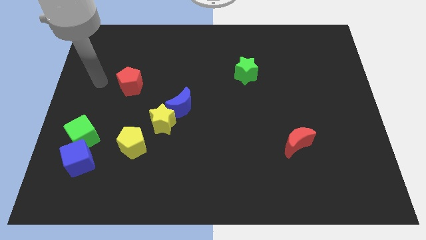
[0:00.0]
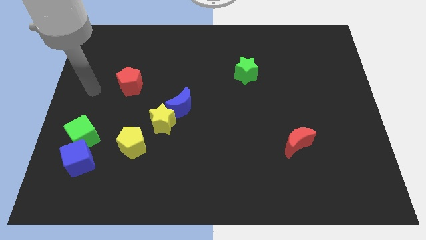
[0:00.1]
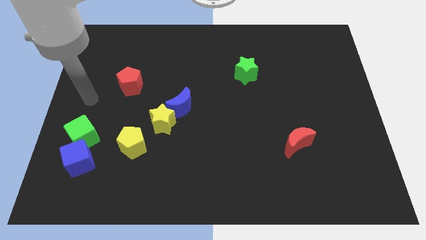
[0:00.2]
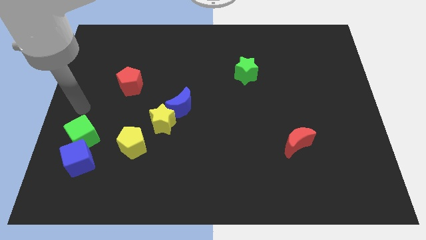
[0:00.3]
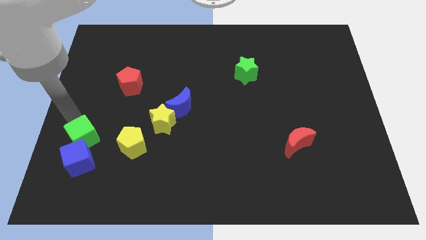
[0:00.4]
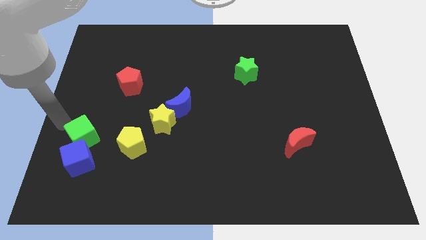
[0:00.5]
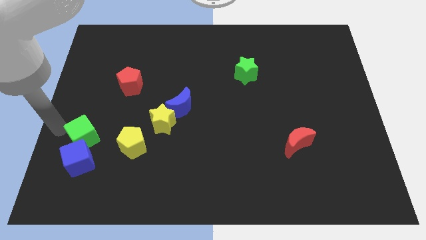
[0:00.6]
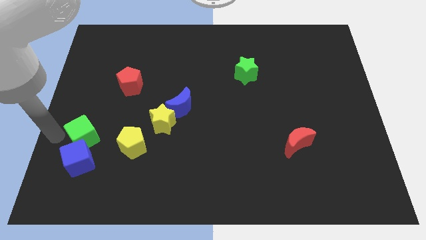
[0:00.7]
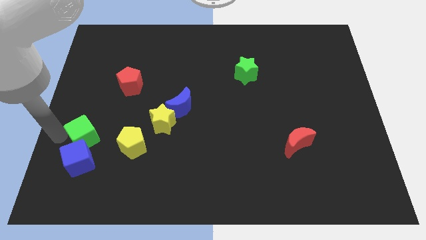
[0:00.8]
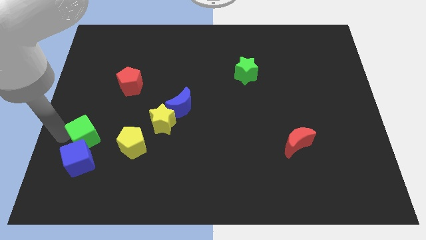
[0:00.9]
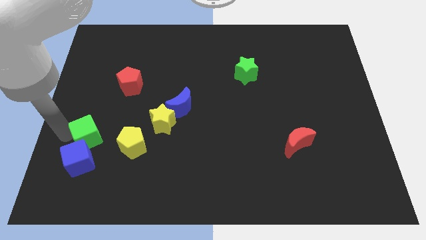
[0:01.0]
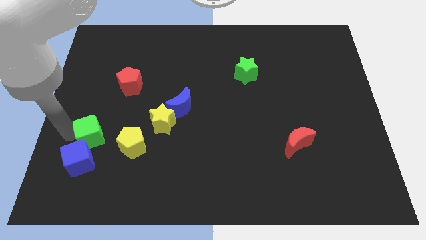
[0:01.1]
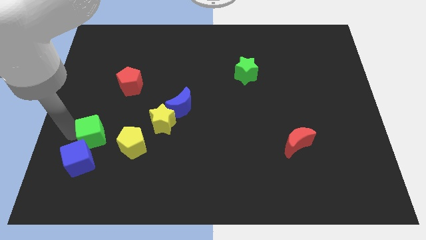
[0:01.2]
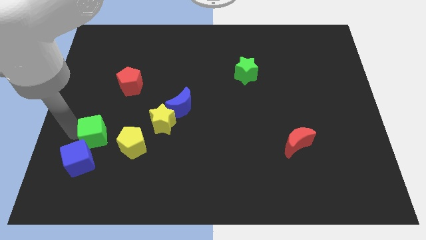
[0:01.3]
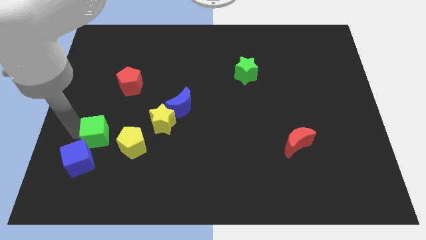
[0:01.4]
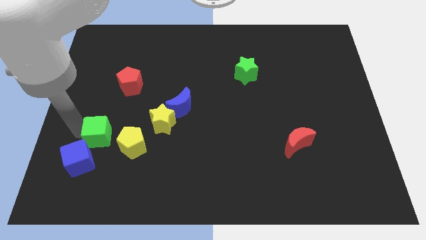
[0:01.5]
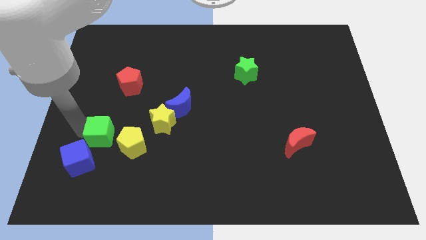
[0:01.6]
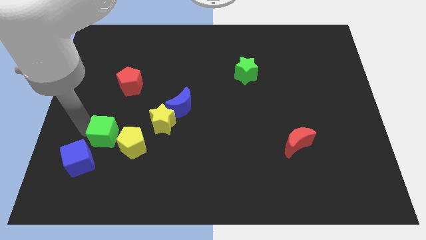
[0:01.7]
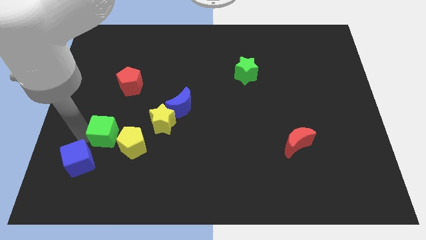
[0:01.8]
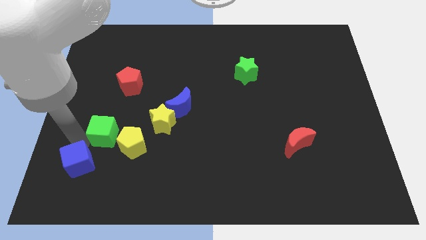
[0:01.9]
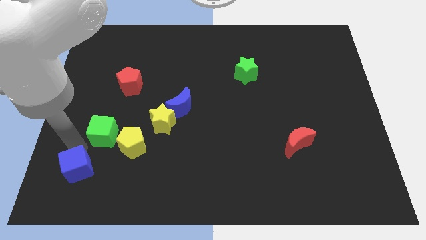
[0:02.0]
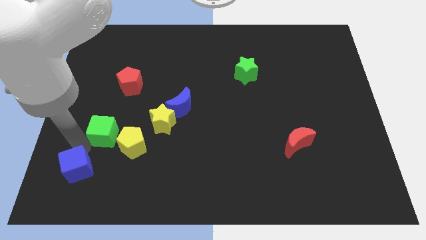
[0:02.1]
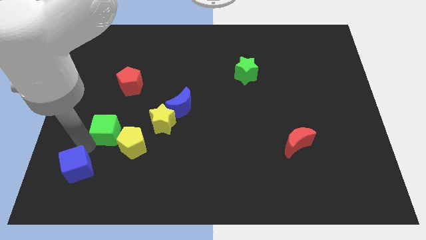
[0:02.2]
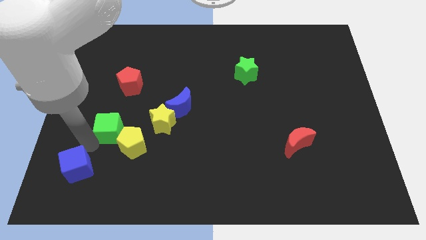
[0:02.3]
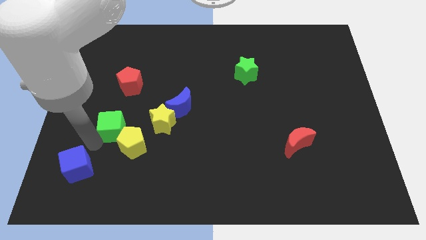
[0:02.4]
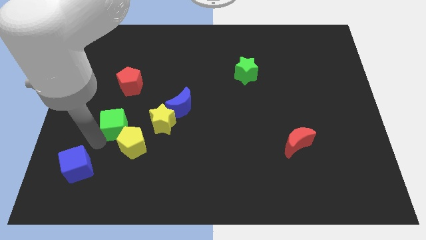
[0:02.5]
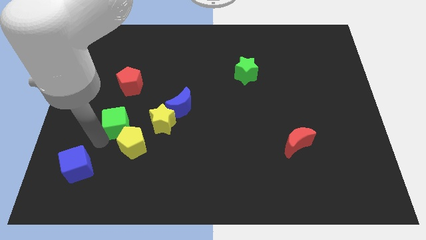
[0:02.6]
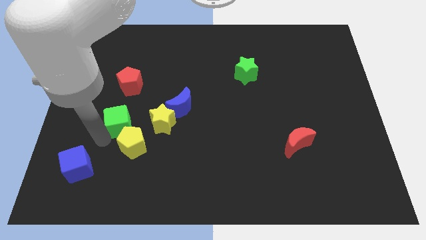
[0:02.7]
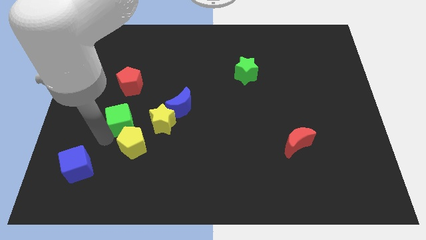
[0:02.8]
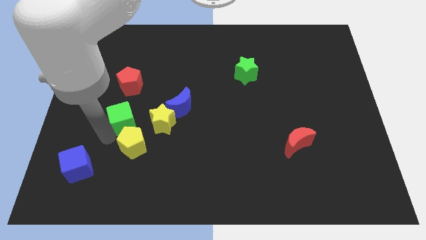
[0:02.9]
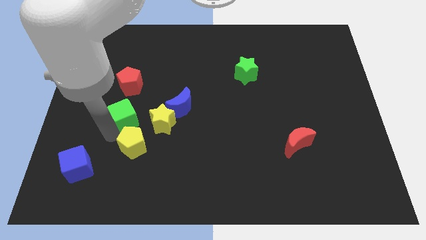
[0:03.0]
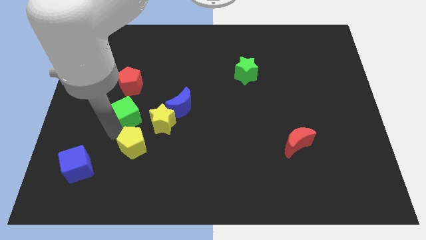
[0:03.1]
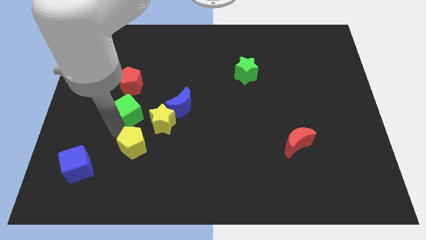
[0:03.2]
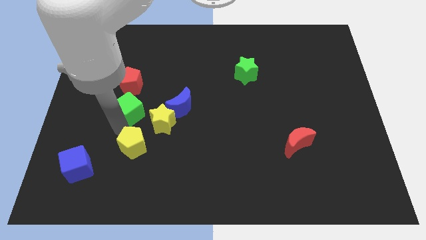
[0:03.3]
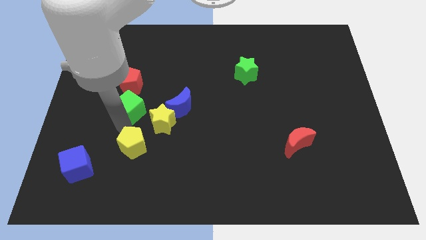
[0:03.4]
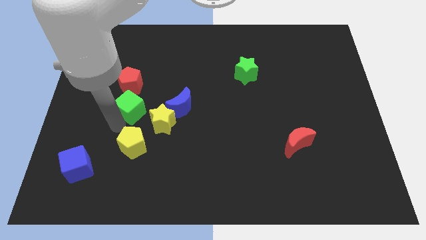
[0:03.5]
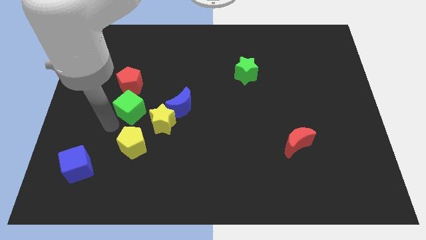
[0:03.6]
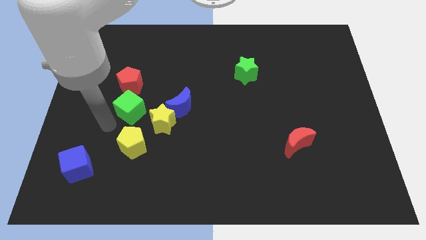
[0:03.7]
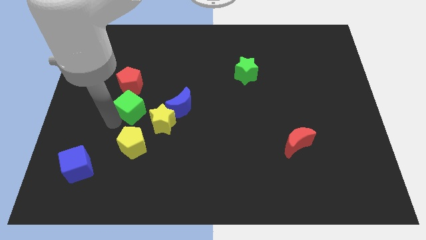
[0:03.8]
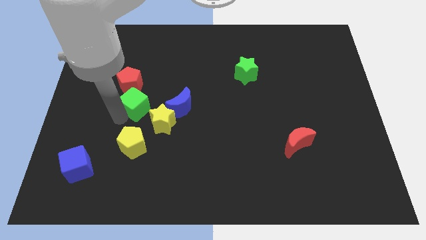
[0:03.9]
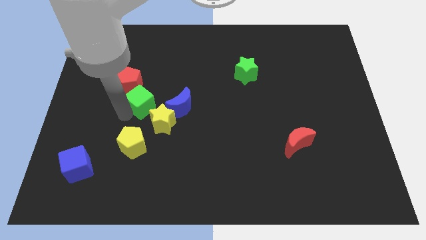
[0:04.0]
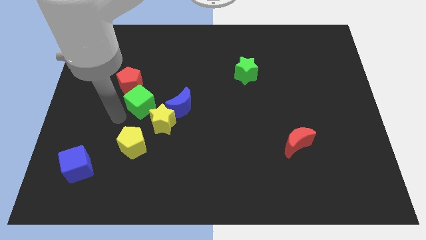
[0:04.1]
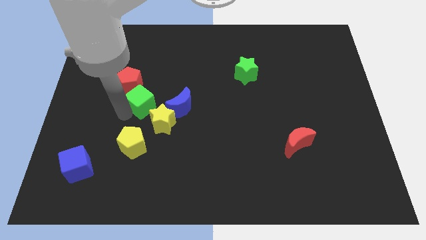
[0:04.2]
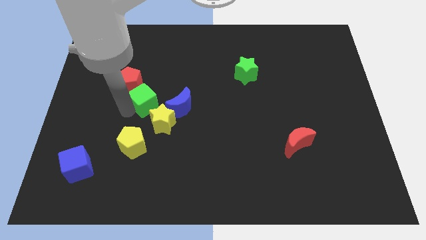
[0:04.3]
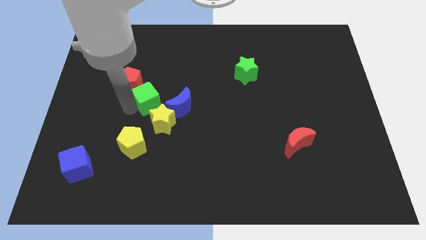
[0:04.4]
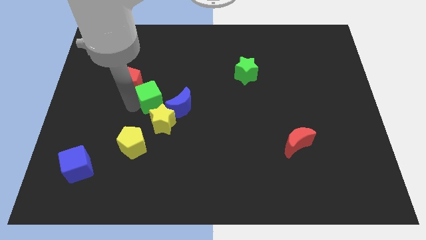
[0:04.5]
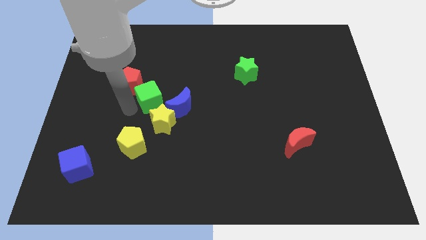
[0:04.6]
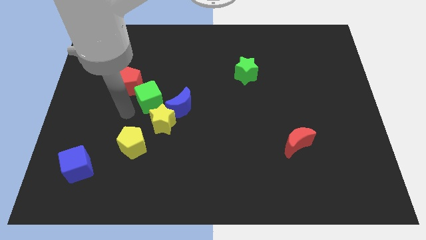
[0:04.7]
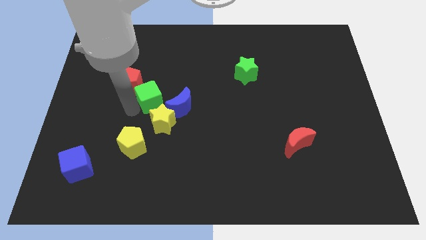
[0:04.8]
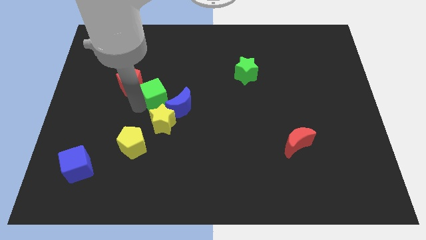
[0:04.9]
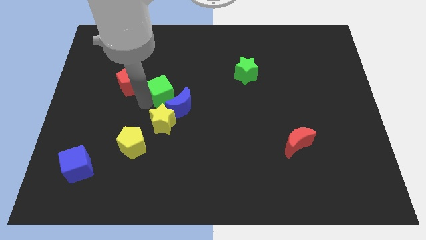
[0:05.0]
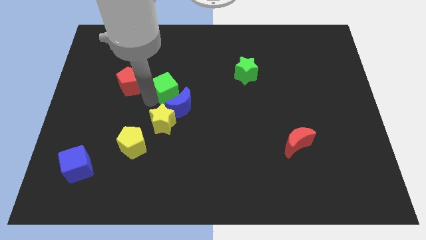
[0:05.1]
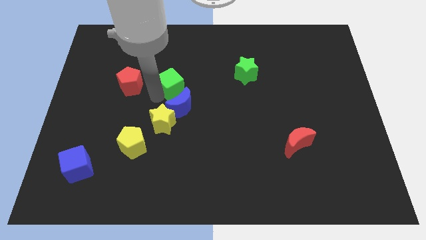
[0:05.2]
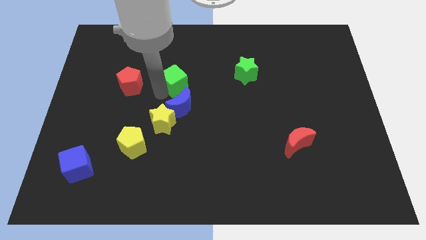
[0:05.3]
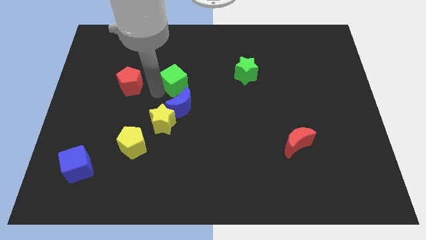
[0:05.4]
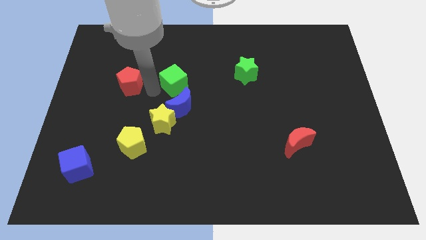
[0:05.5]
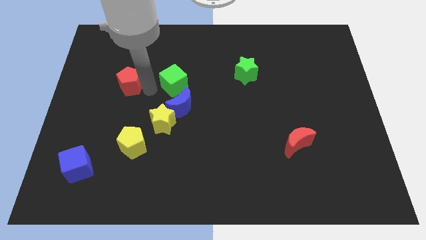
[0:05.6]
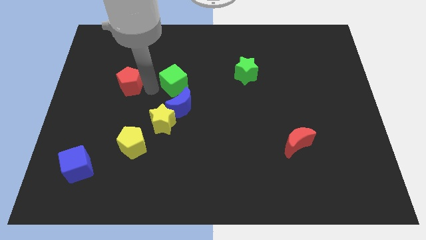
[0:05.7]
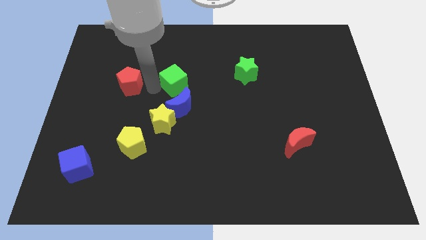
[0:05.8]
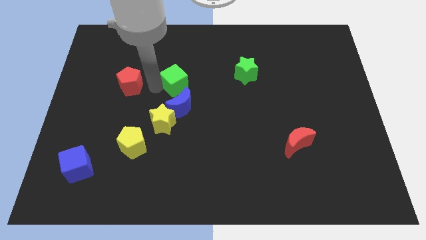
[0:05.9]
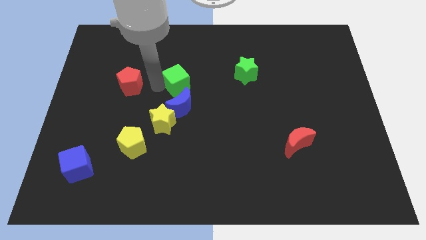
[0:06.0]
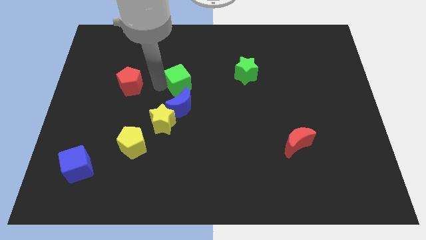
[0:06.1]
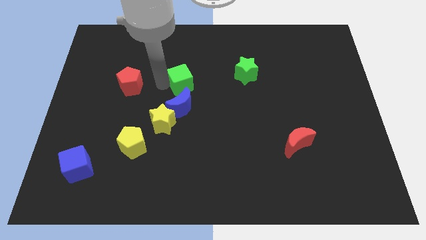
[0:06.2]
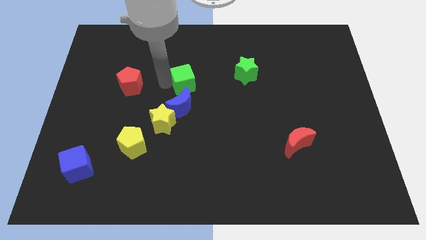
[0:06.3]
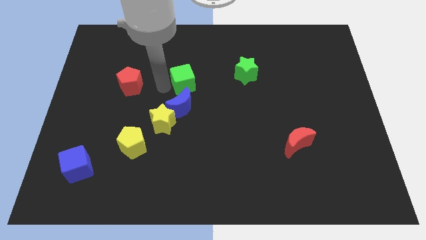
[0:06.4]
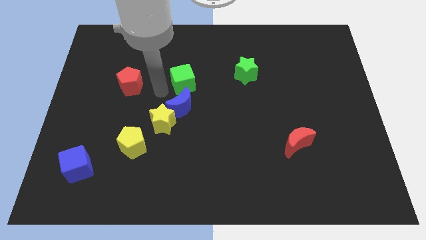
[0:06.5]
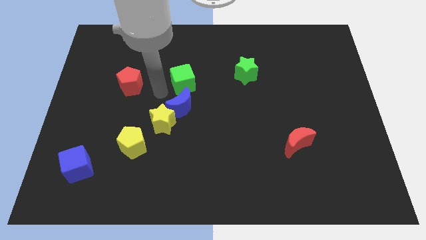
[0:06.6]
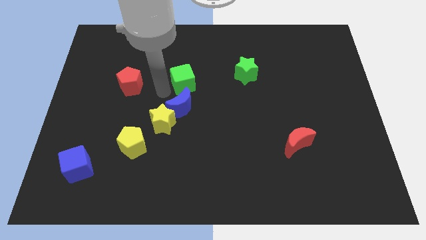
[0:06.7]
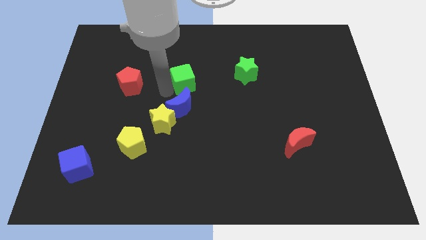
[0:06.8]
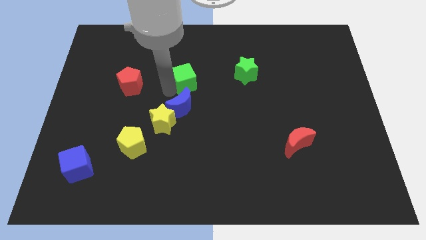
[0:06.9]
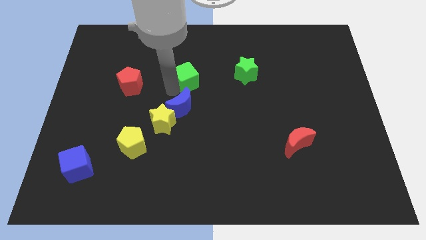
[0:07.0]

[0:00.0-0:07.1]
put the green cube just left of the green star

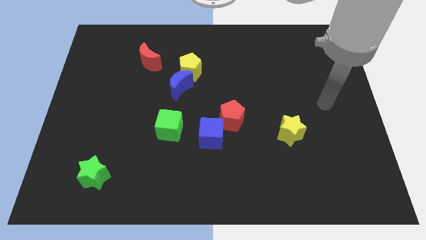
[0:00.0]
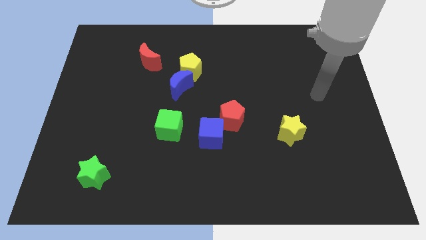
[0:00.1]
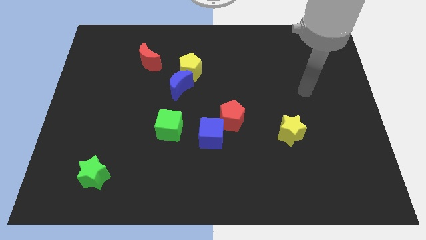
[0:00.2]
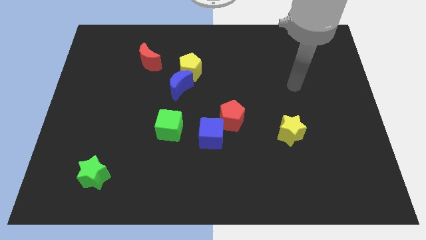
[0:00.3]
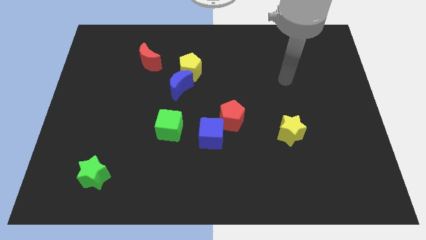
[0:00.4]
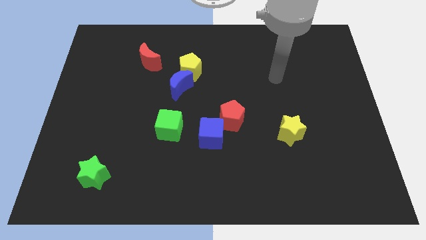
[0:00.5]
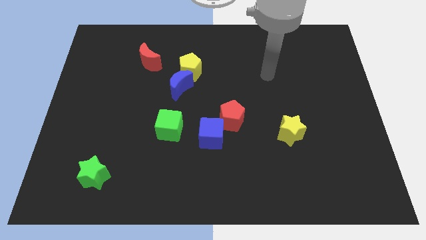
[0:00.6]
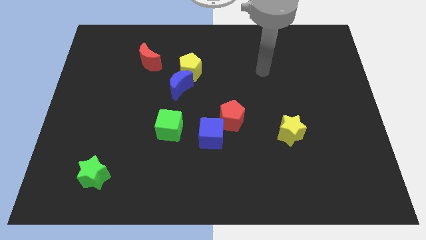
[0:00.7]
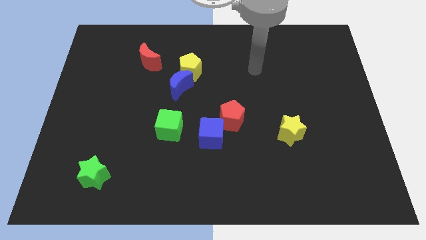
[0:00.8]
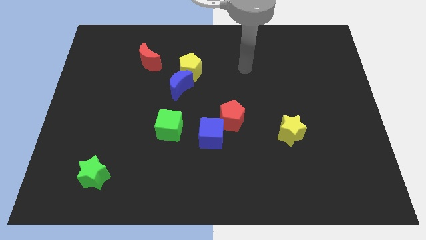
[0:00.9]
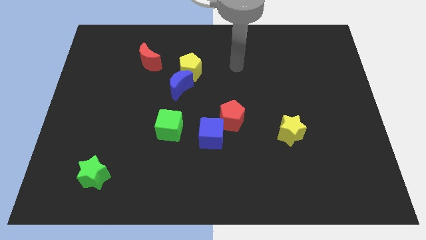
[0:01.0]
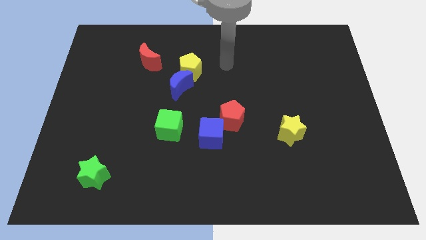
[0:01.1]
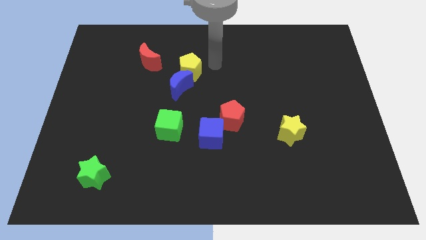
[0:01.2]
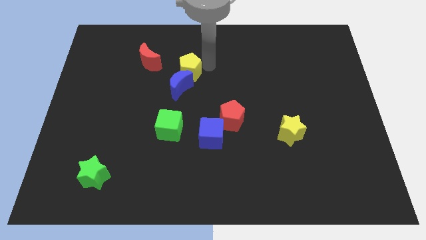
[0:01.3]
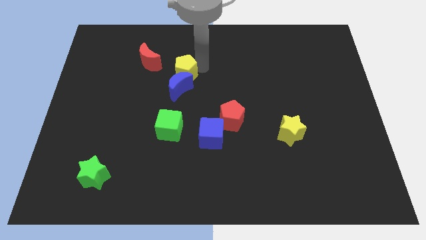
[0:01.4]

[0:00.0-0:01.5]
put the yellow pentagon to the bottom right side of the red moon
